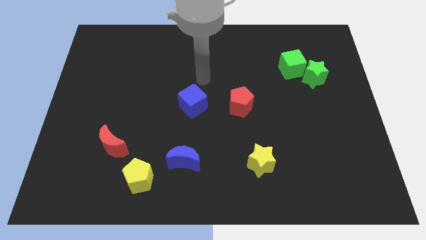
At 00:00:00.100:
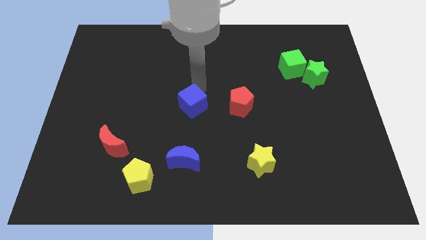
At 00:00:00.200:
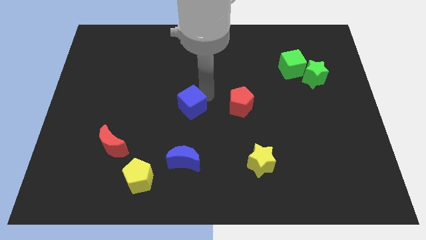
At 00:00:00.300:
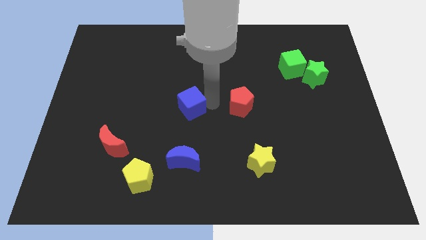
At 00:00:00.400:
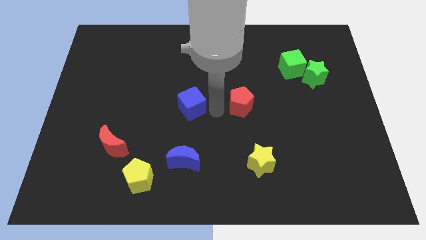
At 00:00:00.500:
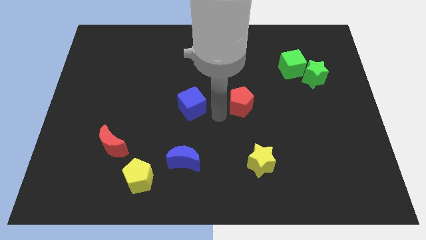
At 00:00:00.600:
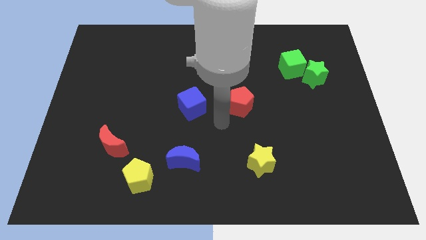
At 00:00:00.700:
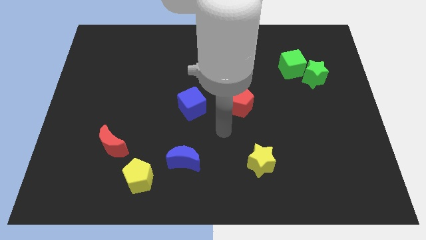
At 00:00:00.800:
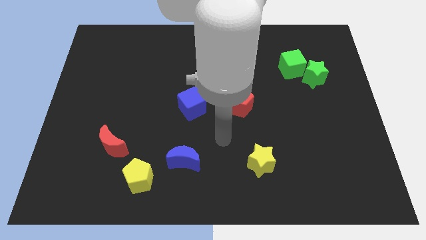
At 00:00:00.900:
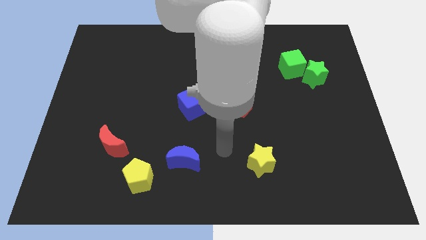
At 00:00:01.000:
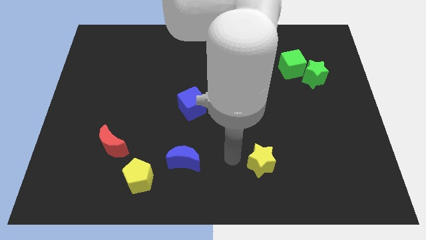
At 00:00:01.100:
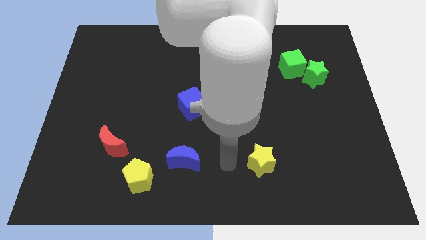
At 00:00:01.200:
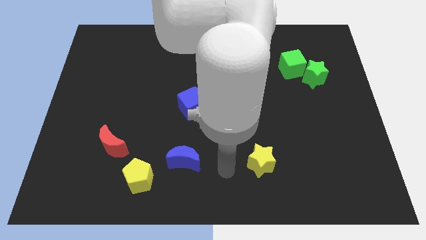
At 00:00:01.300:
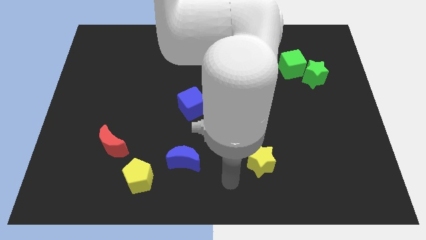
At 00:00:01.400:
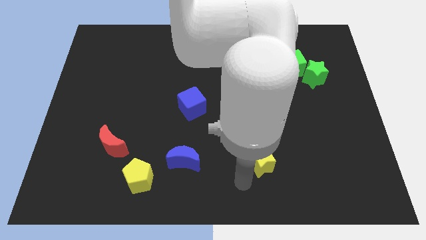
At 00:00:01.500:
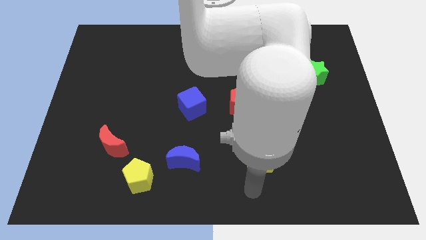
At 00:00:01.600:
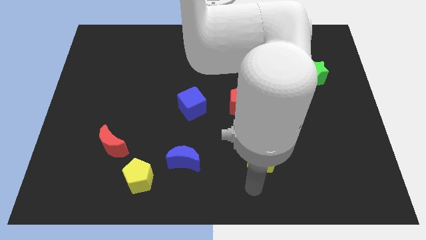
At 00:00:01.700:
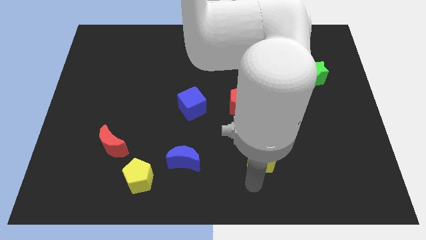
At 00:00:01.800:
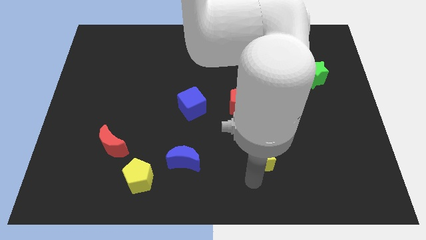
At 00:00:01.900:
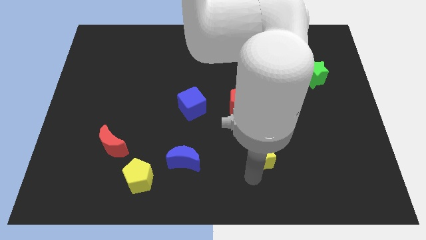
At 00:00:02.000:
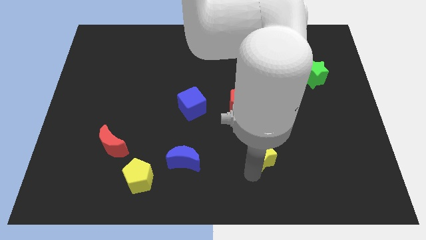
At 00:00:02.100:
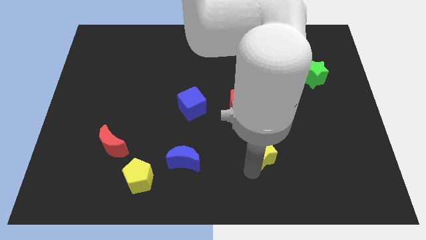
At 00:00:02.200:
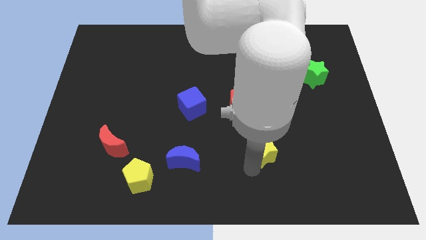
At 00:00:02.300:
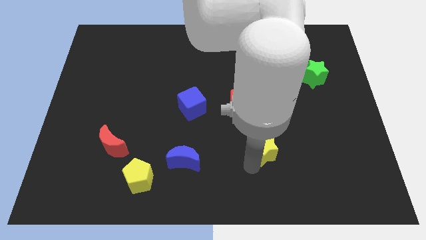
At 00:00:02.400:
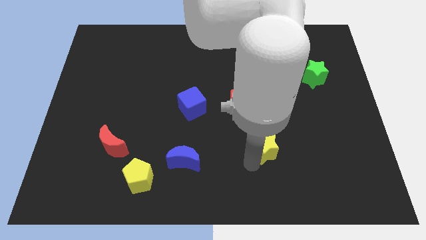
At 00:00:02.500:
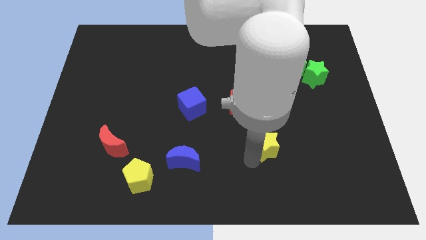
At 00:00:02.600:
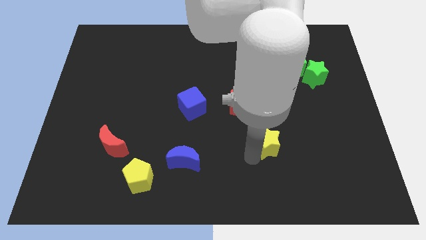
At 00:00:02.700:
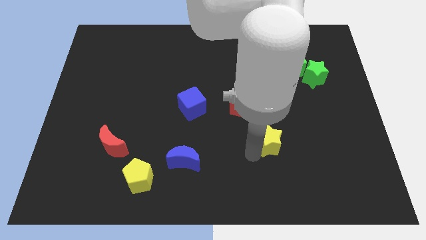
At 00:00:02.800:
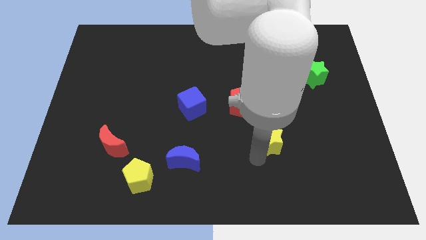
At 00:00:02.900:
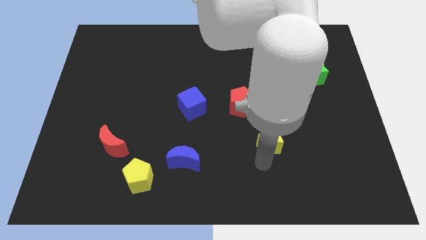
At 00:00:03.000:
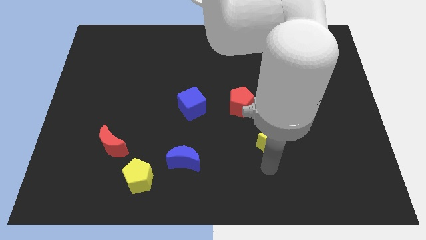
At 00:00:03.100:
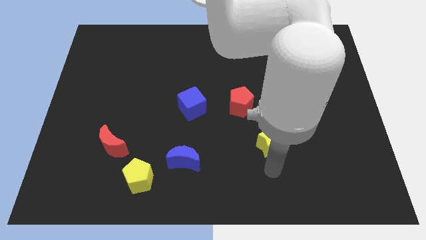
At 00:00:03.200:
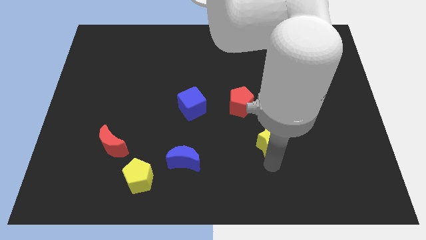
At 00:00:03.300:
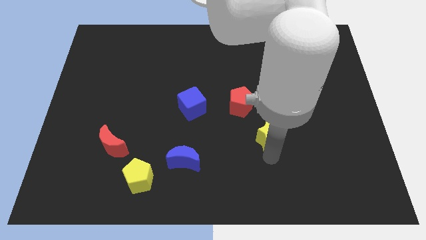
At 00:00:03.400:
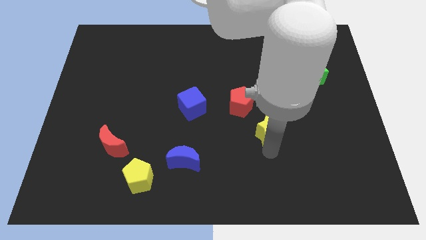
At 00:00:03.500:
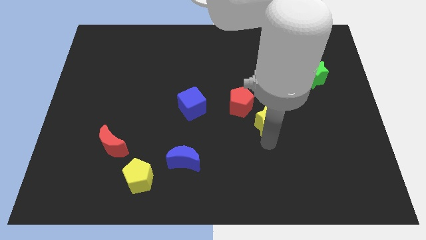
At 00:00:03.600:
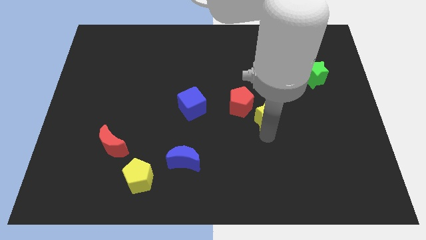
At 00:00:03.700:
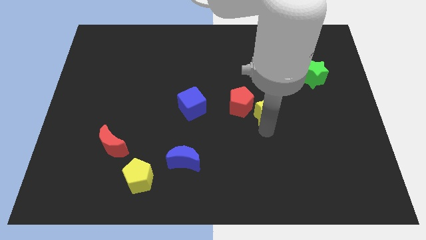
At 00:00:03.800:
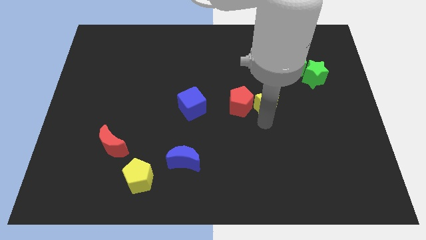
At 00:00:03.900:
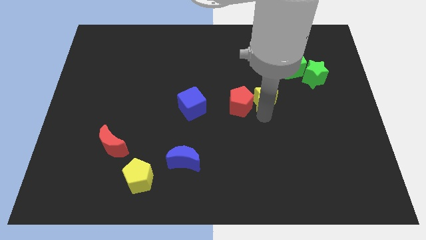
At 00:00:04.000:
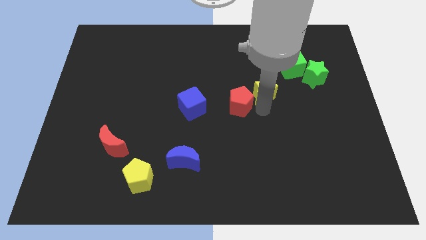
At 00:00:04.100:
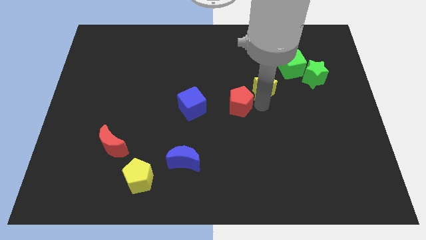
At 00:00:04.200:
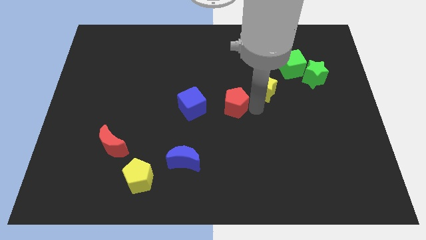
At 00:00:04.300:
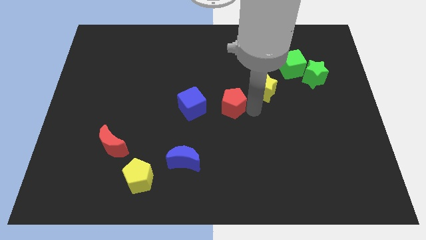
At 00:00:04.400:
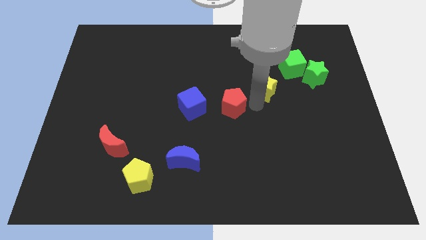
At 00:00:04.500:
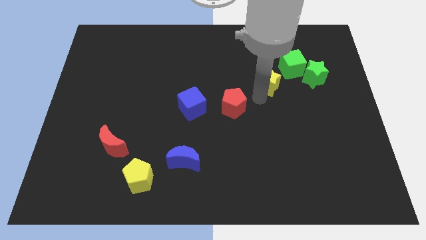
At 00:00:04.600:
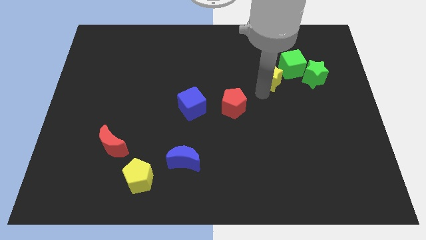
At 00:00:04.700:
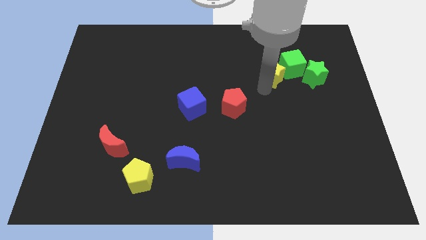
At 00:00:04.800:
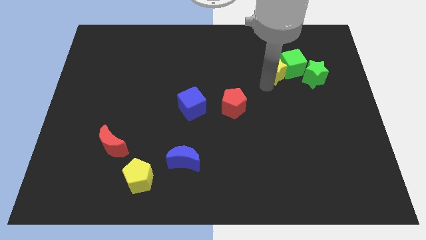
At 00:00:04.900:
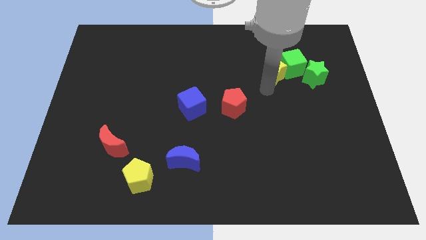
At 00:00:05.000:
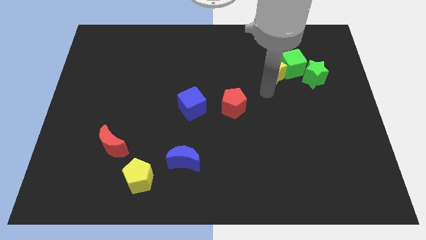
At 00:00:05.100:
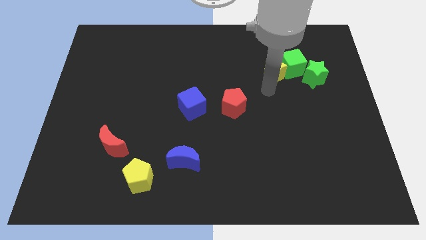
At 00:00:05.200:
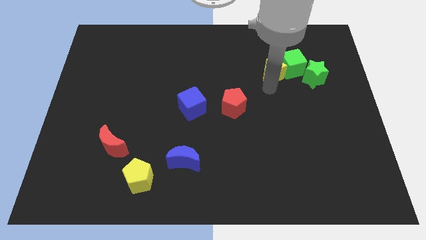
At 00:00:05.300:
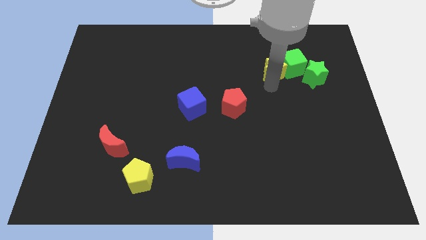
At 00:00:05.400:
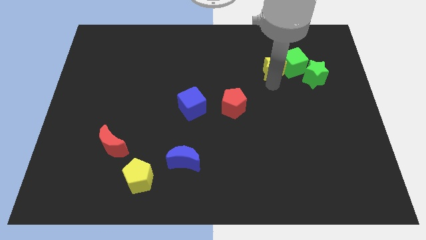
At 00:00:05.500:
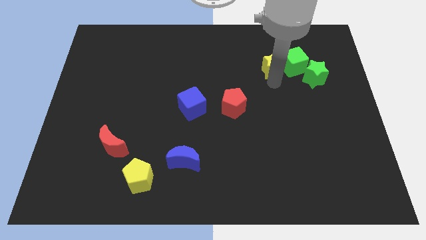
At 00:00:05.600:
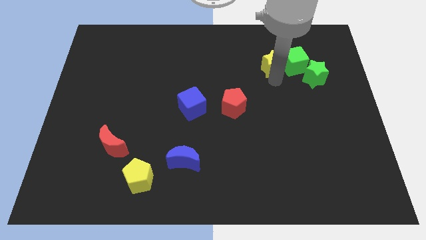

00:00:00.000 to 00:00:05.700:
slide the yellow star to the top left of the green star

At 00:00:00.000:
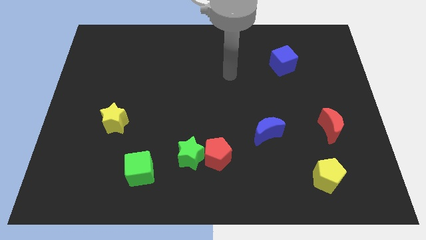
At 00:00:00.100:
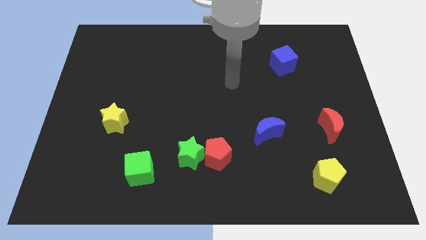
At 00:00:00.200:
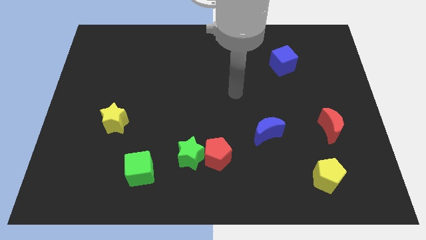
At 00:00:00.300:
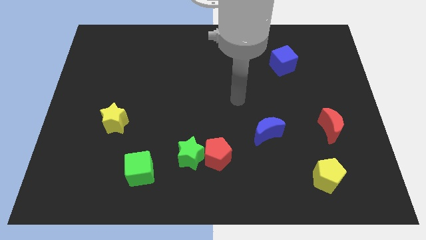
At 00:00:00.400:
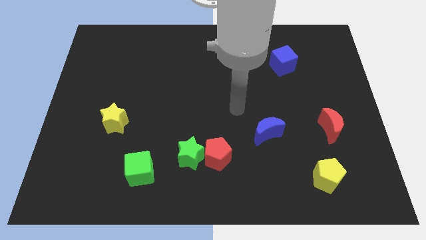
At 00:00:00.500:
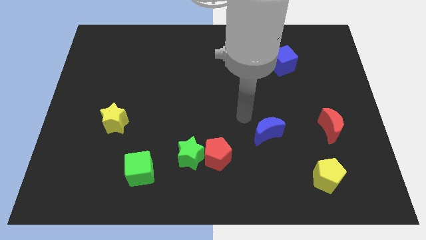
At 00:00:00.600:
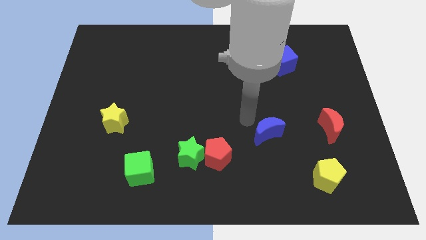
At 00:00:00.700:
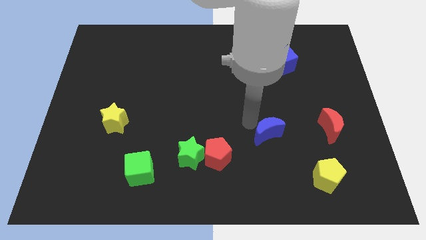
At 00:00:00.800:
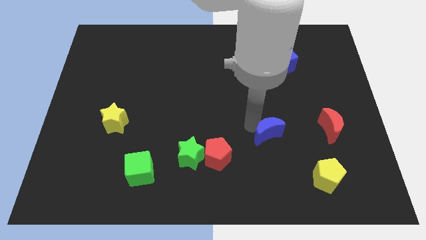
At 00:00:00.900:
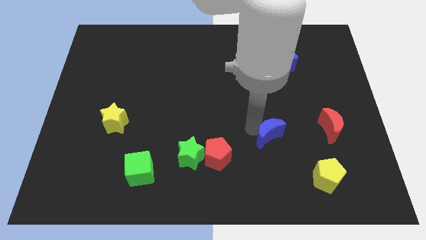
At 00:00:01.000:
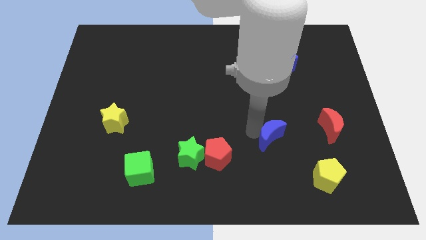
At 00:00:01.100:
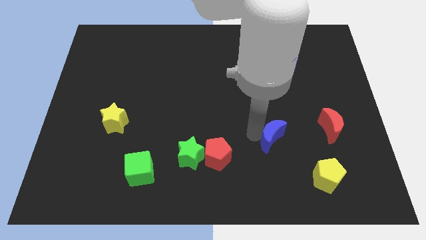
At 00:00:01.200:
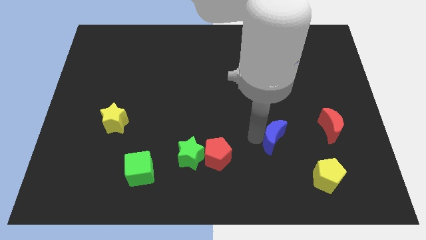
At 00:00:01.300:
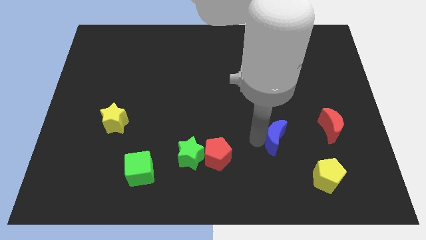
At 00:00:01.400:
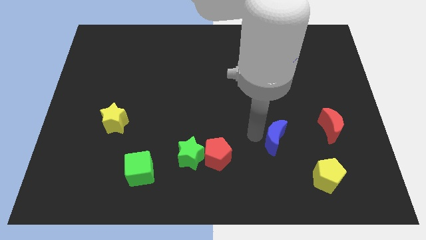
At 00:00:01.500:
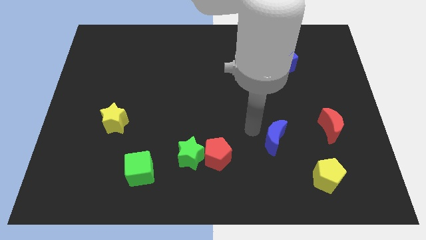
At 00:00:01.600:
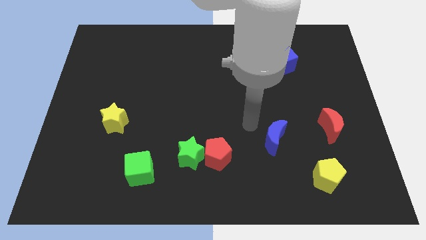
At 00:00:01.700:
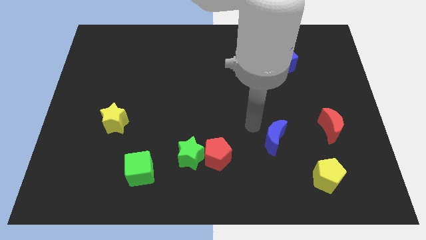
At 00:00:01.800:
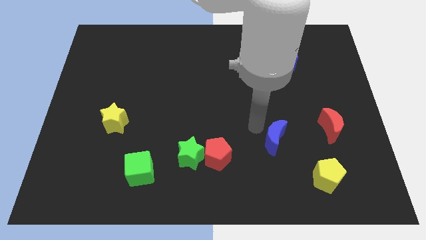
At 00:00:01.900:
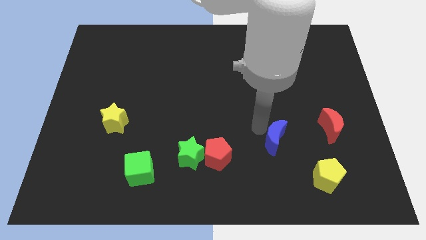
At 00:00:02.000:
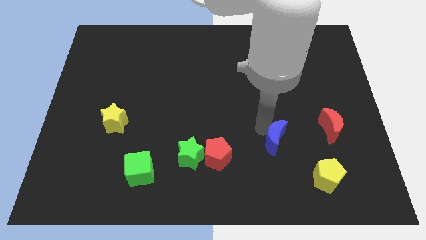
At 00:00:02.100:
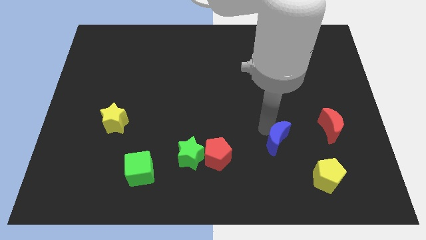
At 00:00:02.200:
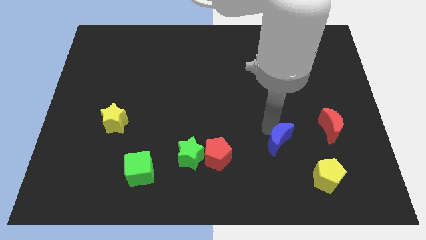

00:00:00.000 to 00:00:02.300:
slide the blue moon to the top left of the yellow pentagon
